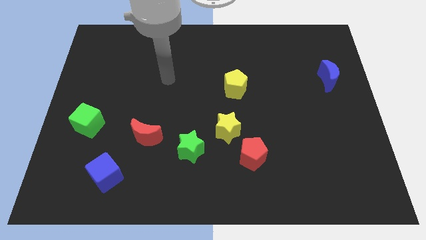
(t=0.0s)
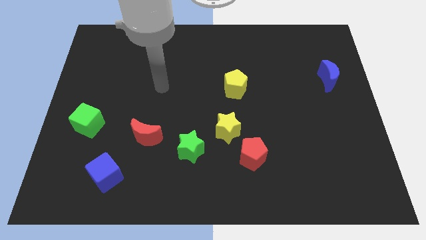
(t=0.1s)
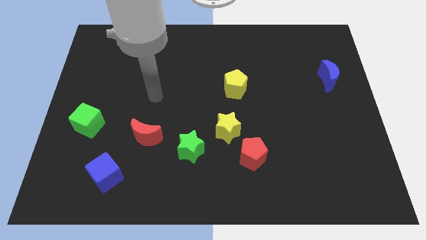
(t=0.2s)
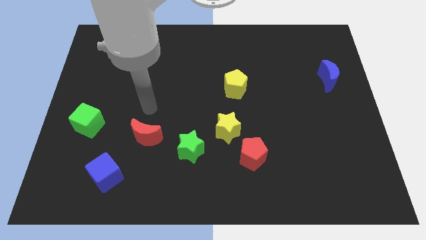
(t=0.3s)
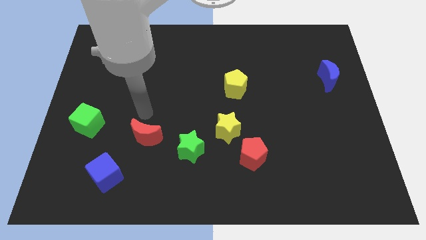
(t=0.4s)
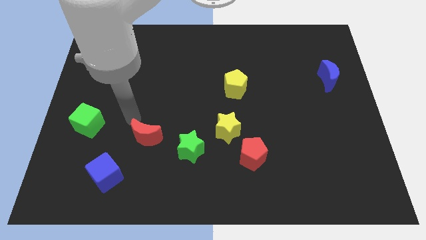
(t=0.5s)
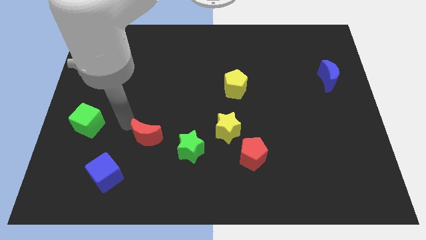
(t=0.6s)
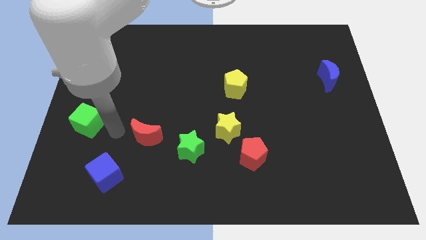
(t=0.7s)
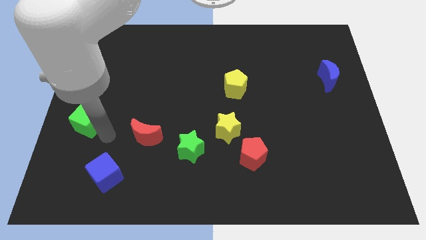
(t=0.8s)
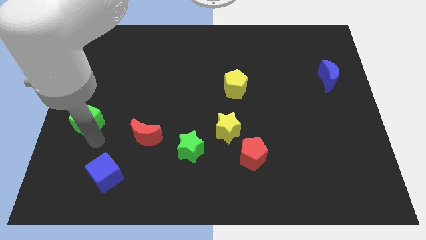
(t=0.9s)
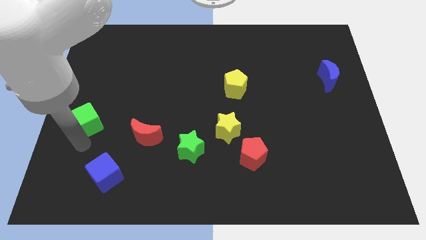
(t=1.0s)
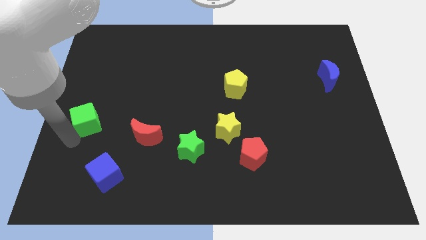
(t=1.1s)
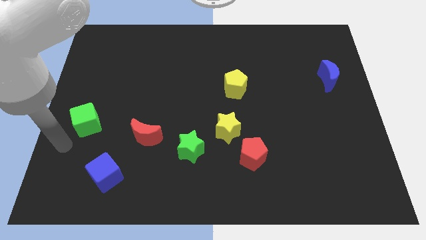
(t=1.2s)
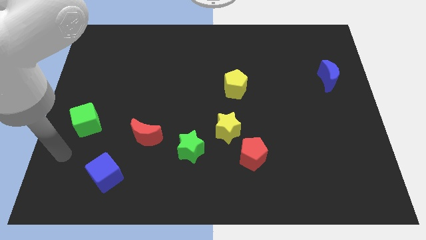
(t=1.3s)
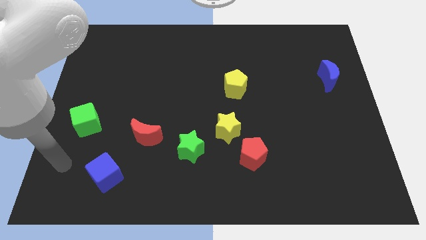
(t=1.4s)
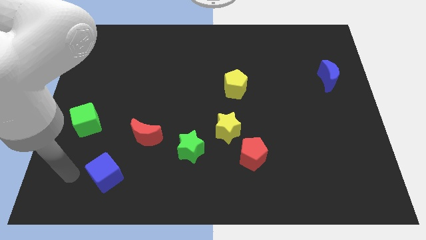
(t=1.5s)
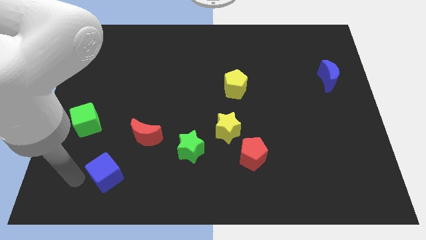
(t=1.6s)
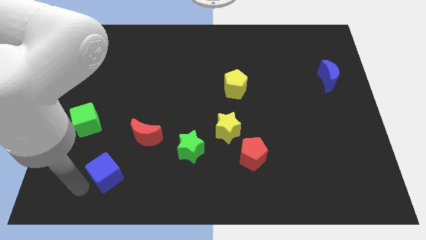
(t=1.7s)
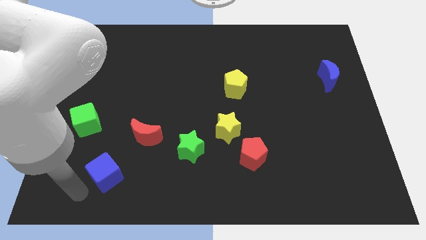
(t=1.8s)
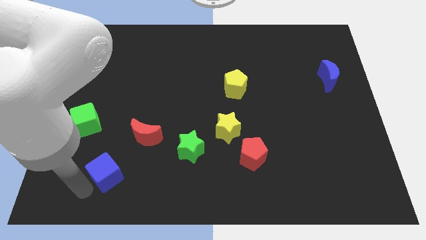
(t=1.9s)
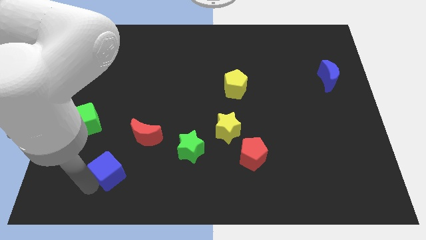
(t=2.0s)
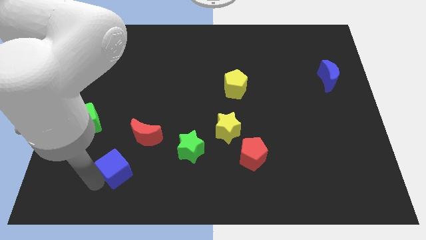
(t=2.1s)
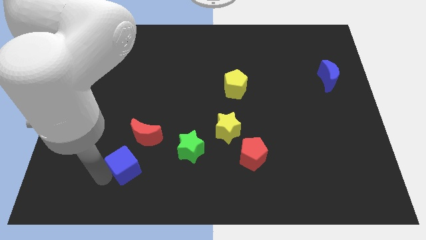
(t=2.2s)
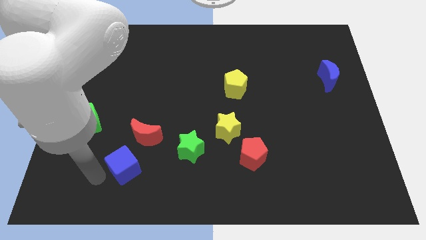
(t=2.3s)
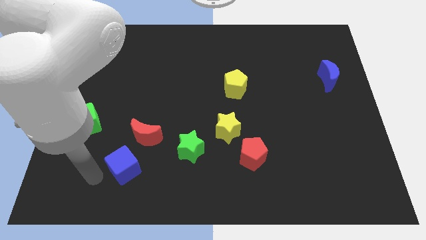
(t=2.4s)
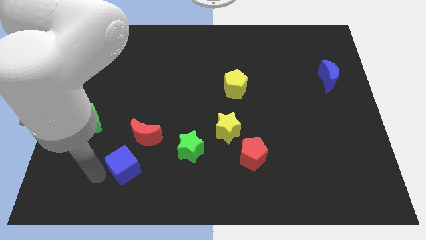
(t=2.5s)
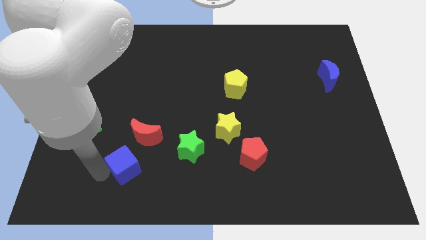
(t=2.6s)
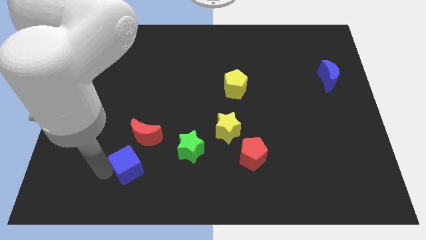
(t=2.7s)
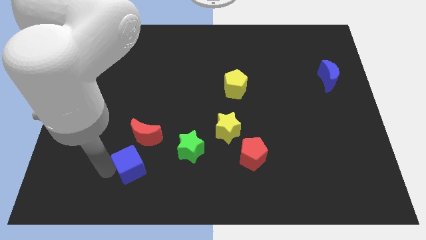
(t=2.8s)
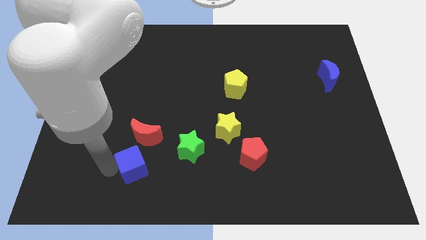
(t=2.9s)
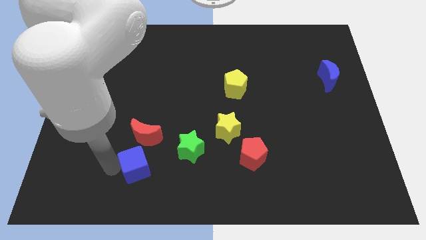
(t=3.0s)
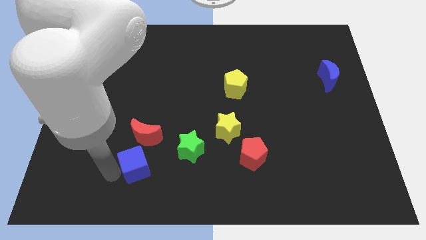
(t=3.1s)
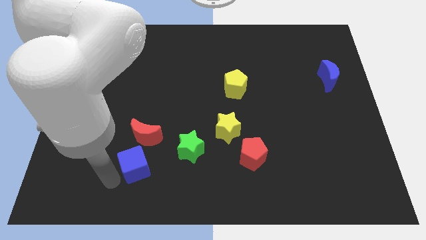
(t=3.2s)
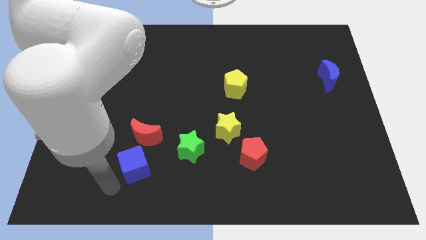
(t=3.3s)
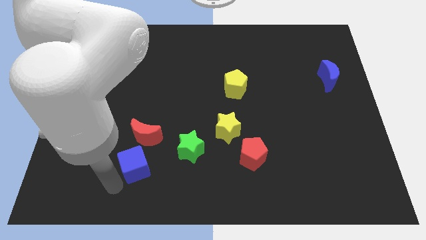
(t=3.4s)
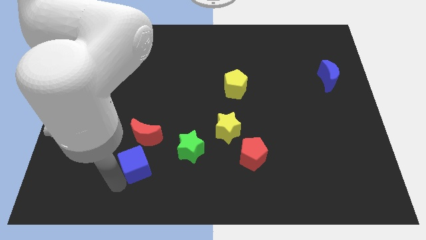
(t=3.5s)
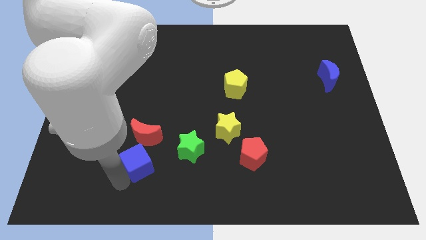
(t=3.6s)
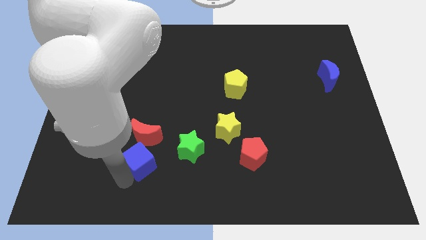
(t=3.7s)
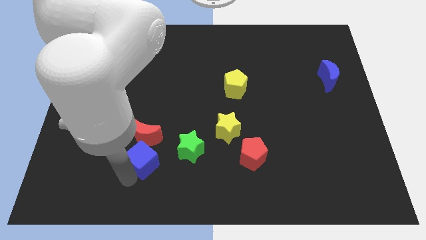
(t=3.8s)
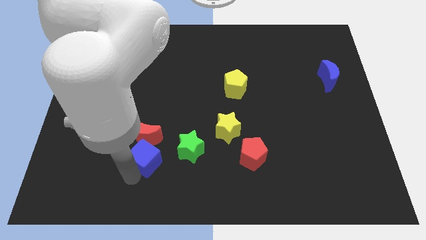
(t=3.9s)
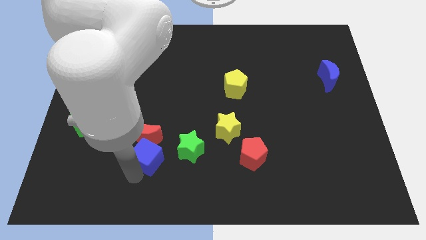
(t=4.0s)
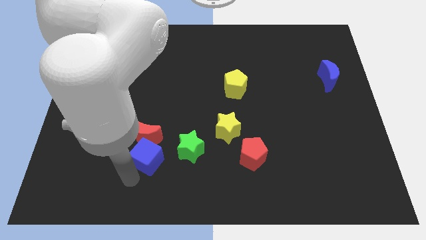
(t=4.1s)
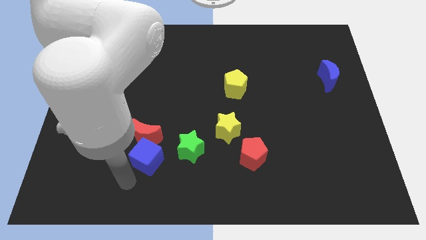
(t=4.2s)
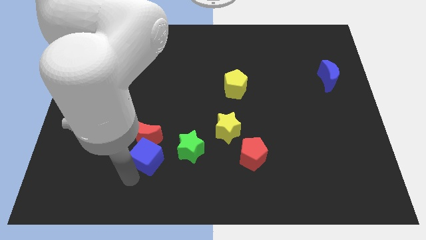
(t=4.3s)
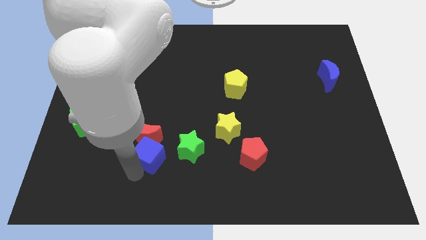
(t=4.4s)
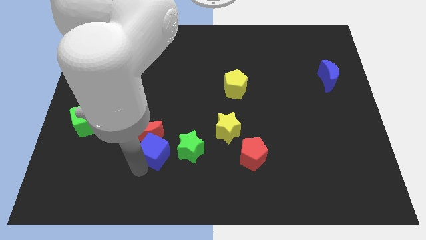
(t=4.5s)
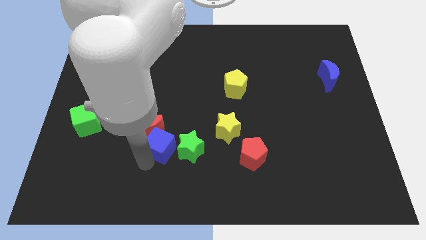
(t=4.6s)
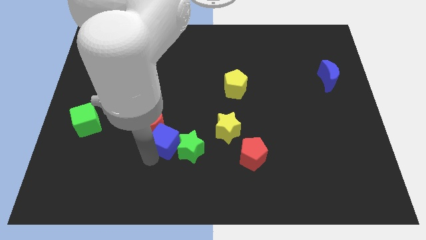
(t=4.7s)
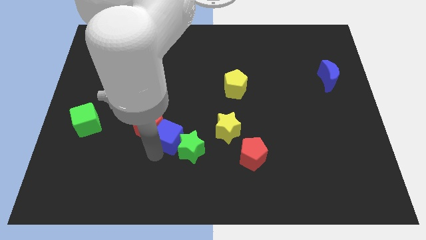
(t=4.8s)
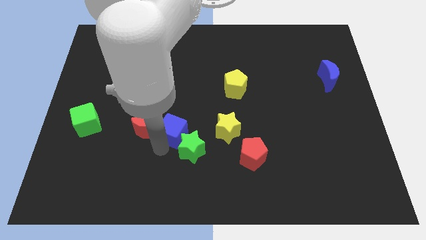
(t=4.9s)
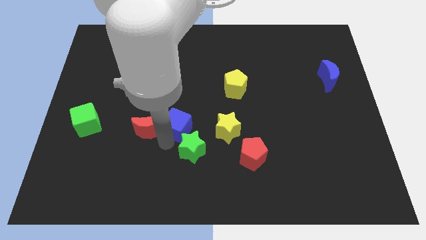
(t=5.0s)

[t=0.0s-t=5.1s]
put the blue cube to the middle of the board

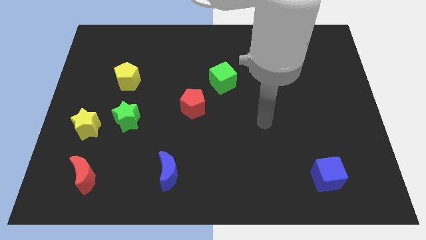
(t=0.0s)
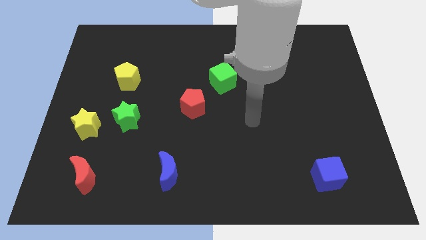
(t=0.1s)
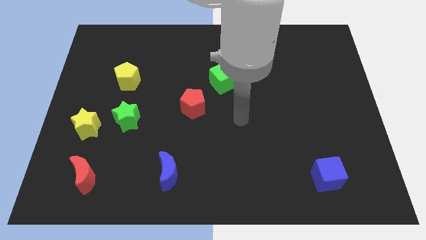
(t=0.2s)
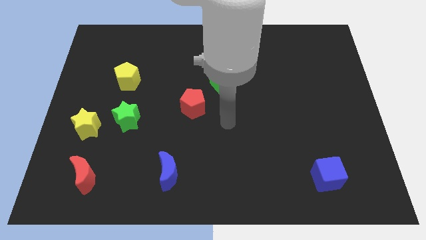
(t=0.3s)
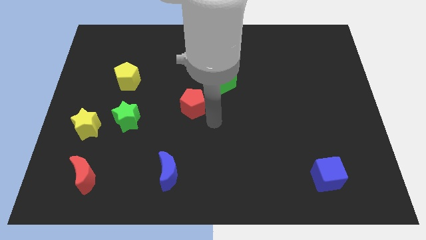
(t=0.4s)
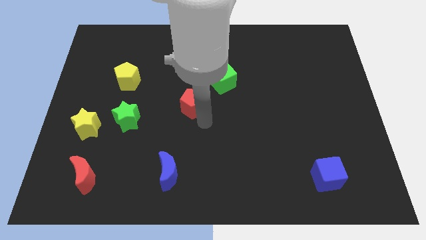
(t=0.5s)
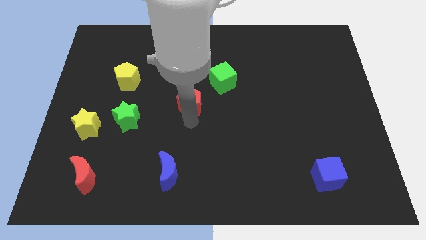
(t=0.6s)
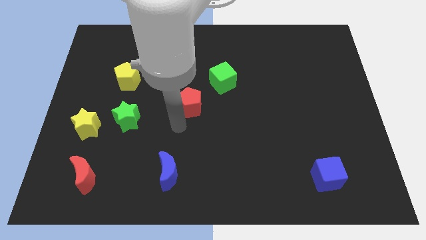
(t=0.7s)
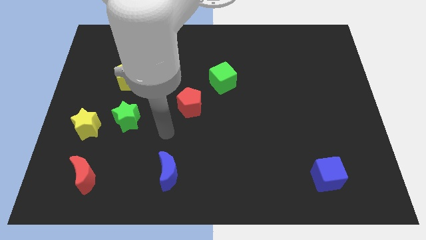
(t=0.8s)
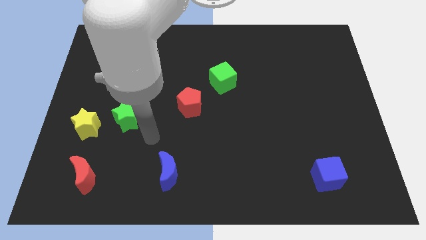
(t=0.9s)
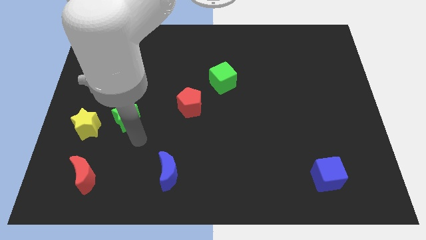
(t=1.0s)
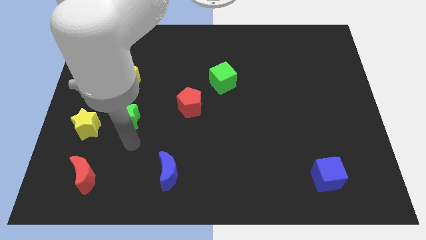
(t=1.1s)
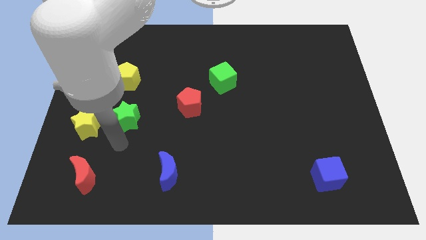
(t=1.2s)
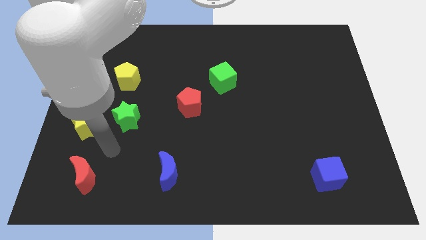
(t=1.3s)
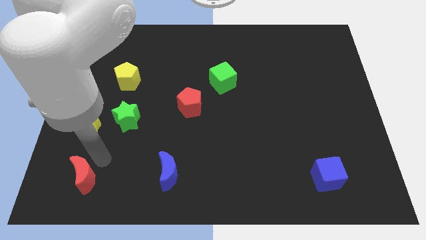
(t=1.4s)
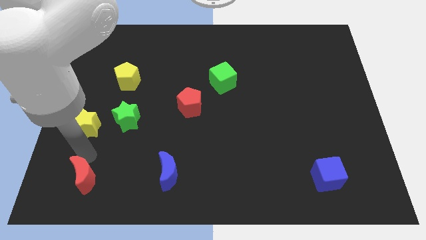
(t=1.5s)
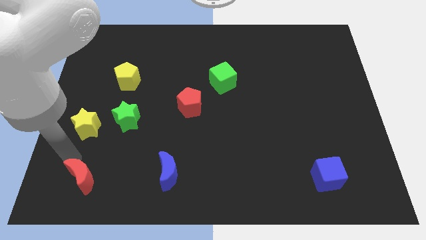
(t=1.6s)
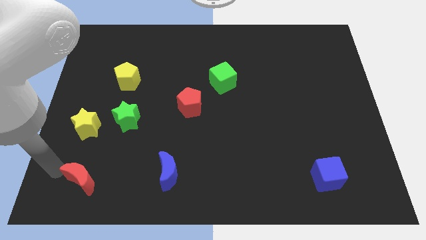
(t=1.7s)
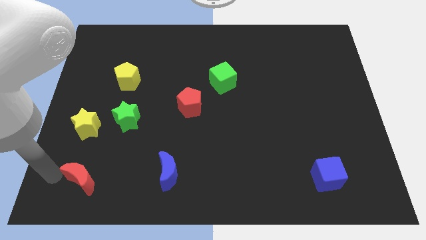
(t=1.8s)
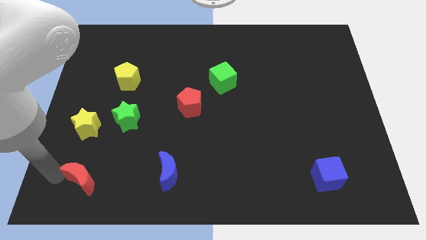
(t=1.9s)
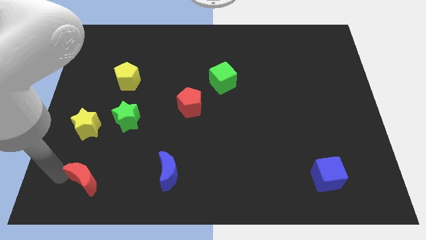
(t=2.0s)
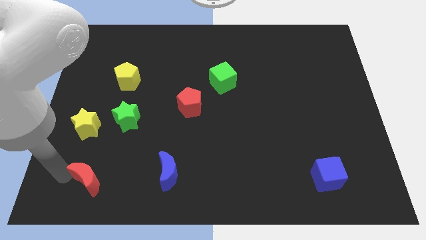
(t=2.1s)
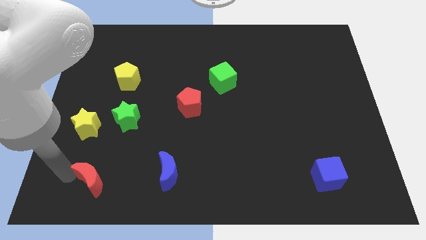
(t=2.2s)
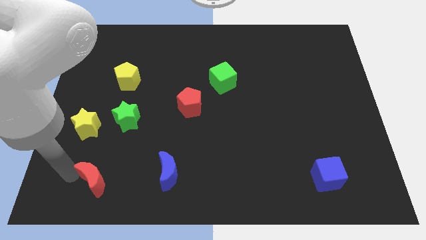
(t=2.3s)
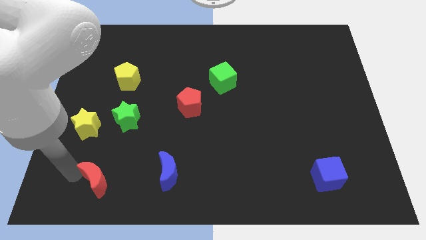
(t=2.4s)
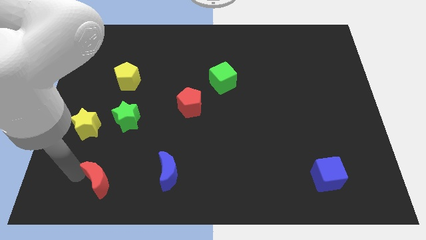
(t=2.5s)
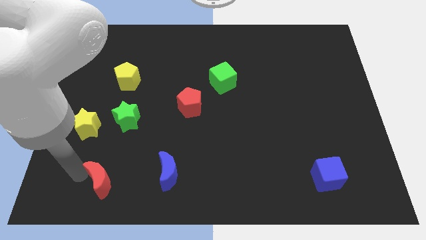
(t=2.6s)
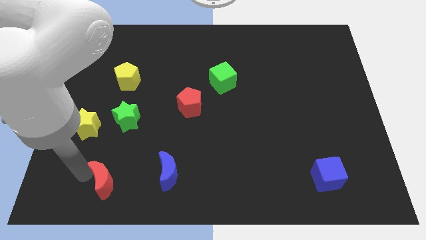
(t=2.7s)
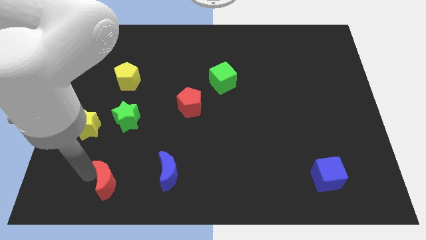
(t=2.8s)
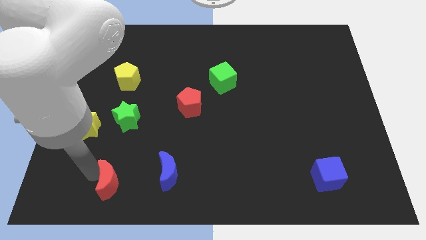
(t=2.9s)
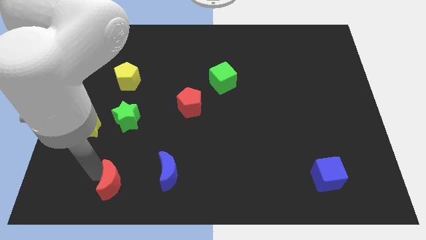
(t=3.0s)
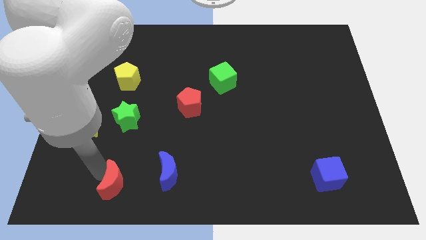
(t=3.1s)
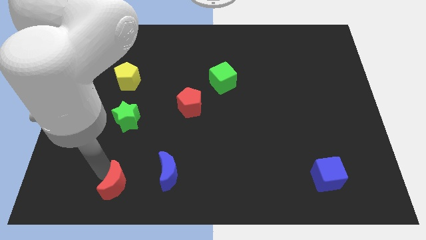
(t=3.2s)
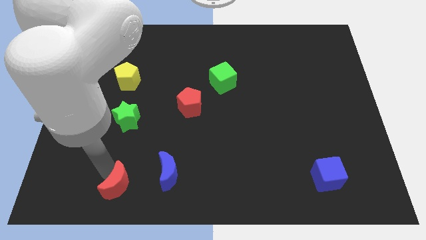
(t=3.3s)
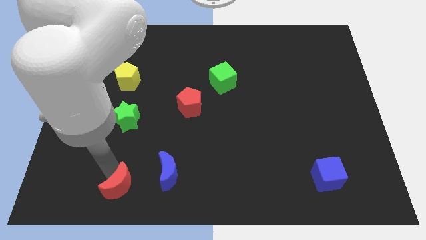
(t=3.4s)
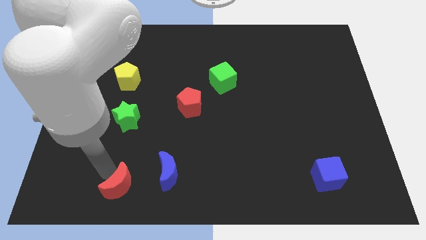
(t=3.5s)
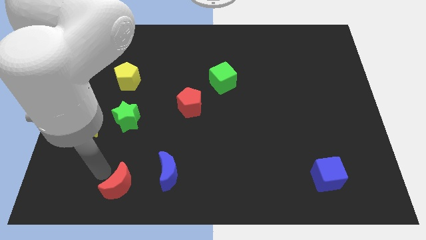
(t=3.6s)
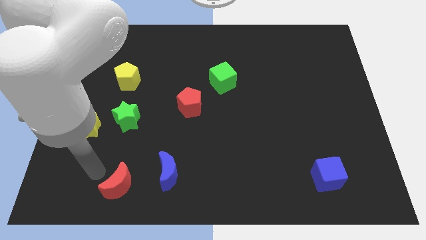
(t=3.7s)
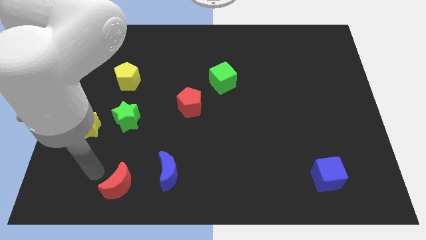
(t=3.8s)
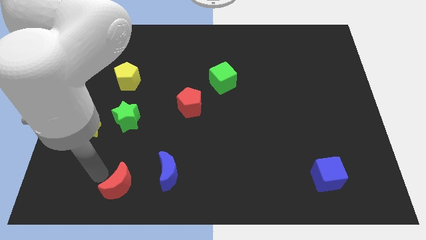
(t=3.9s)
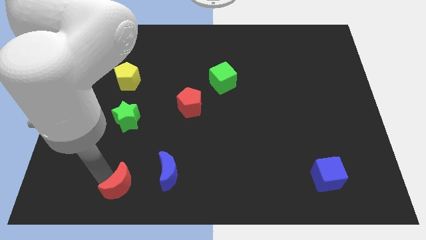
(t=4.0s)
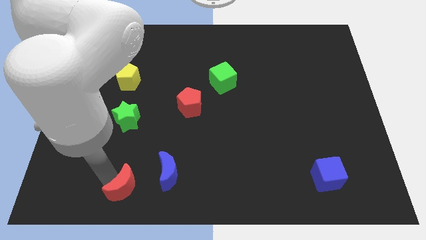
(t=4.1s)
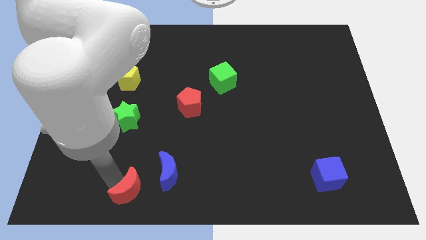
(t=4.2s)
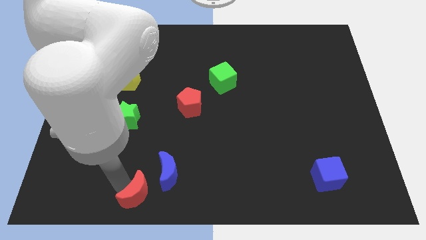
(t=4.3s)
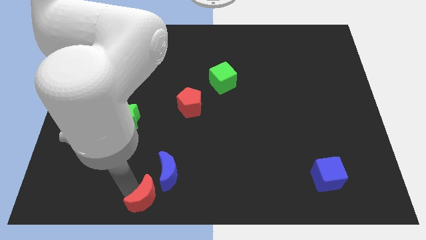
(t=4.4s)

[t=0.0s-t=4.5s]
push the red moon to the bottom side
